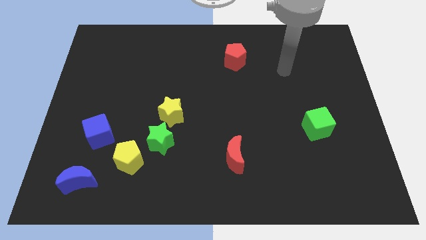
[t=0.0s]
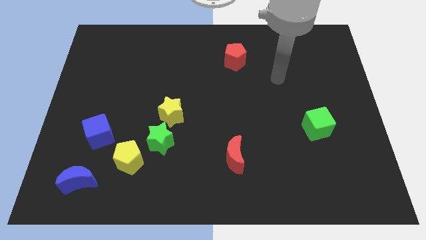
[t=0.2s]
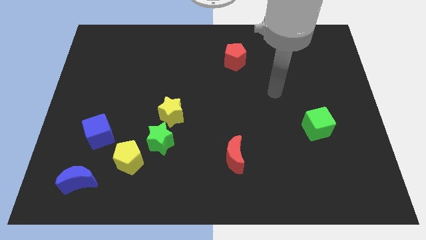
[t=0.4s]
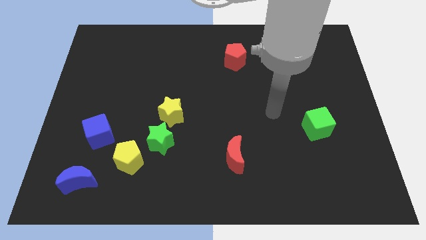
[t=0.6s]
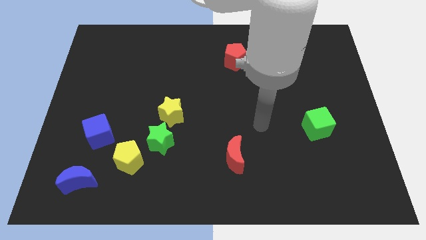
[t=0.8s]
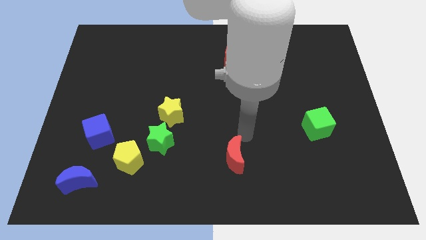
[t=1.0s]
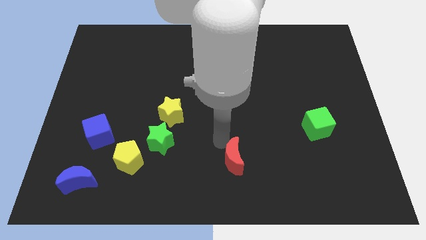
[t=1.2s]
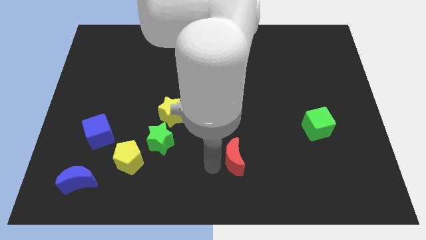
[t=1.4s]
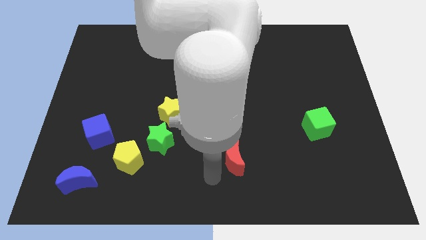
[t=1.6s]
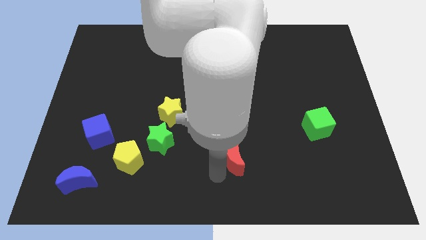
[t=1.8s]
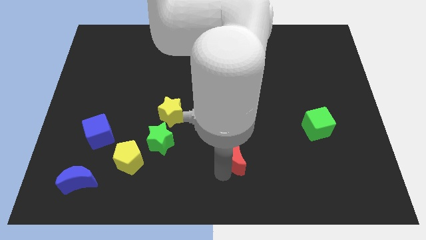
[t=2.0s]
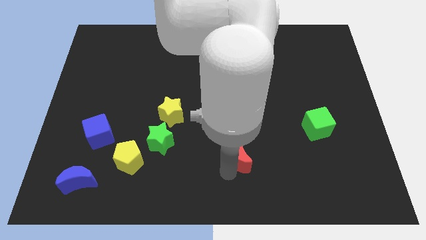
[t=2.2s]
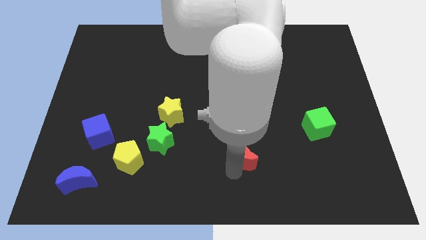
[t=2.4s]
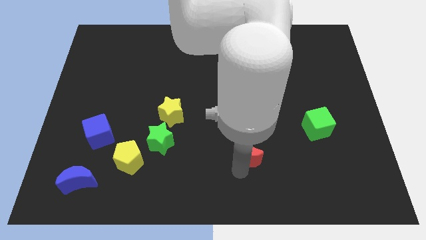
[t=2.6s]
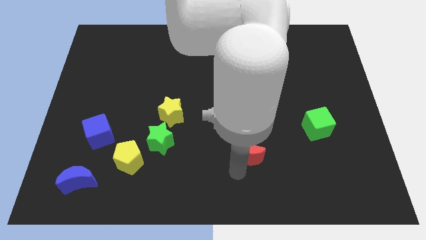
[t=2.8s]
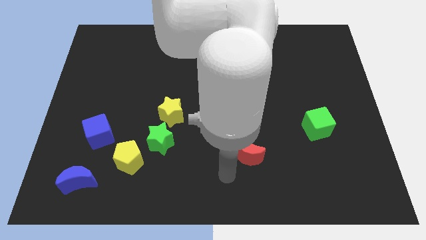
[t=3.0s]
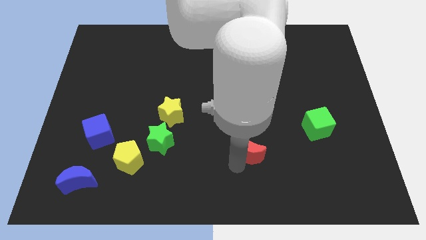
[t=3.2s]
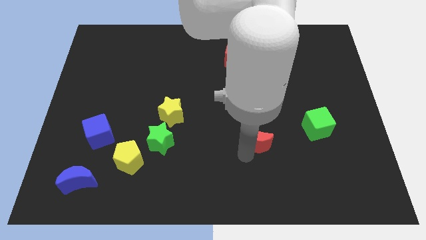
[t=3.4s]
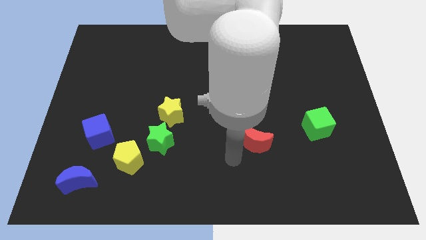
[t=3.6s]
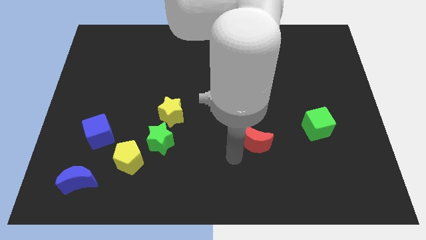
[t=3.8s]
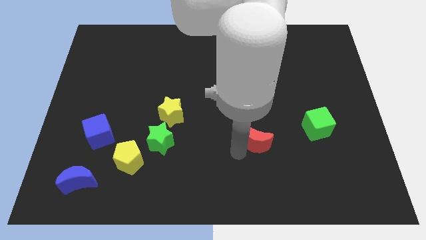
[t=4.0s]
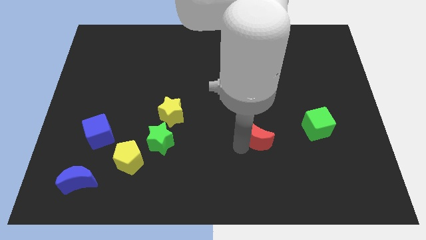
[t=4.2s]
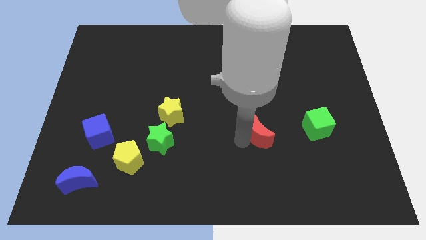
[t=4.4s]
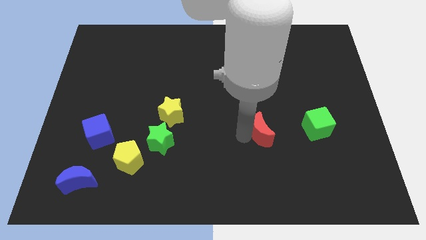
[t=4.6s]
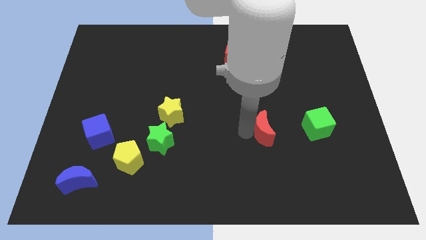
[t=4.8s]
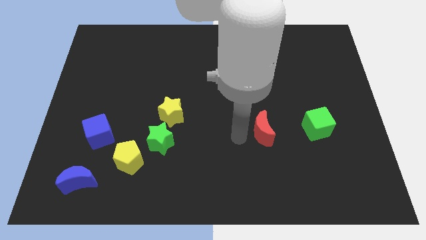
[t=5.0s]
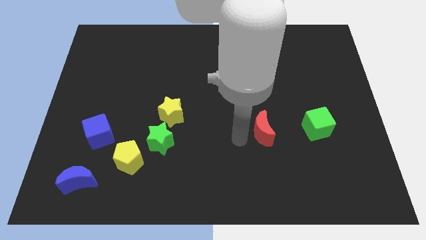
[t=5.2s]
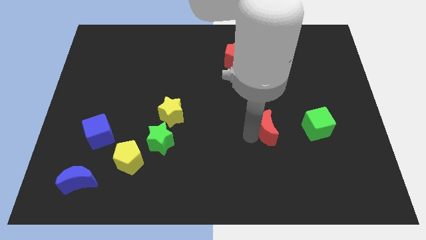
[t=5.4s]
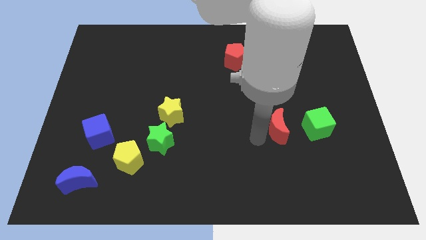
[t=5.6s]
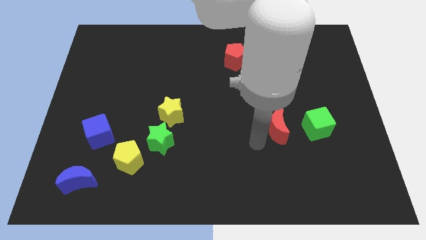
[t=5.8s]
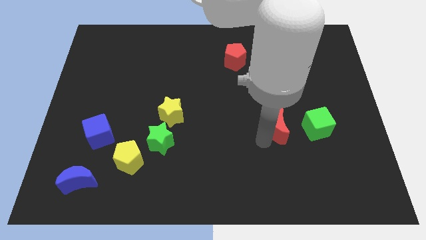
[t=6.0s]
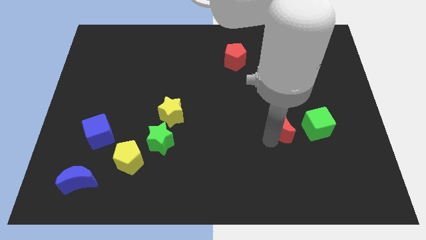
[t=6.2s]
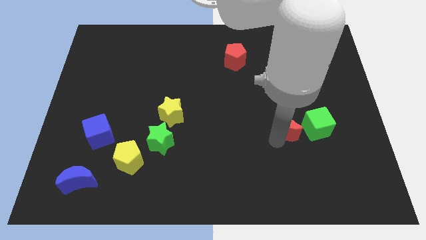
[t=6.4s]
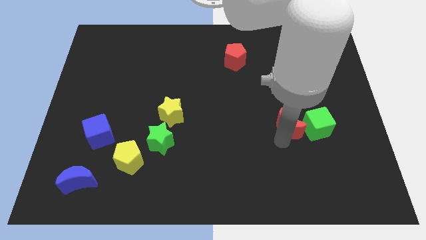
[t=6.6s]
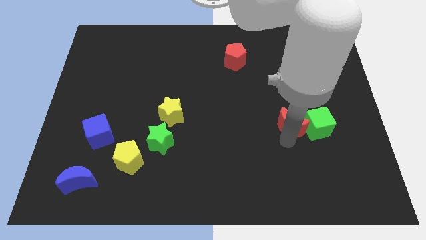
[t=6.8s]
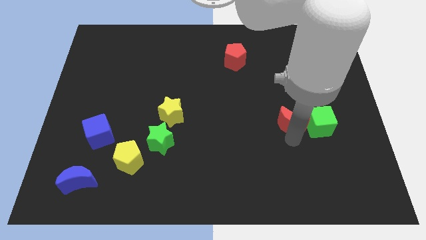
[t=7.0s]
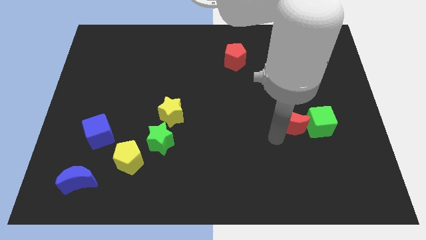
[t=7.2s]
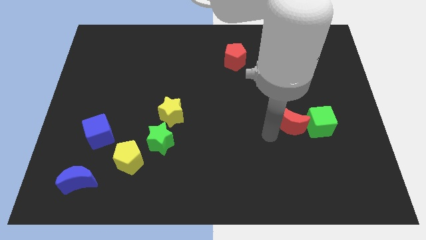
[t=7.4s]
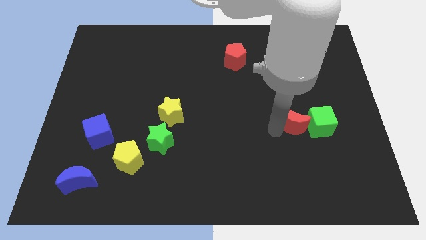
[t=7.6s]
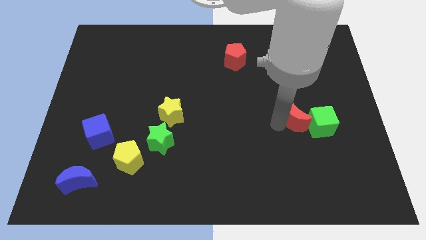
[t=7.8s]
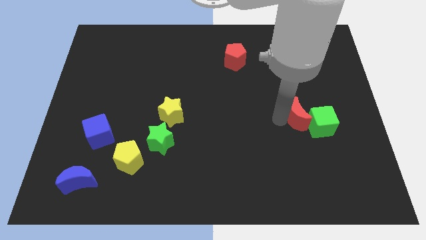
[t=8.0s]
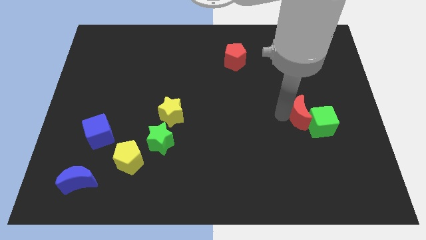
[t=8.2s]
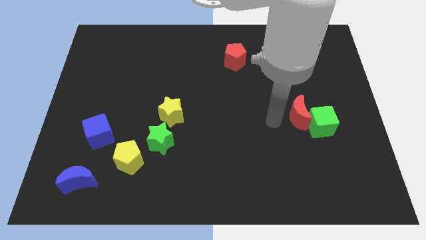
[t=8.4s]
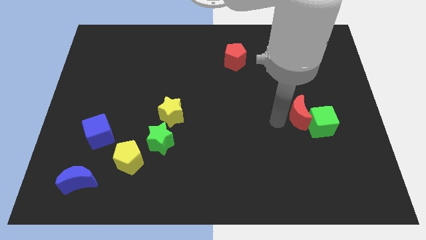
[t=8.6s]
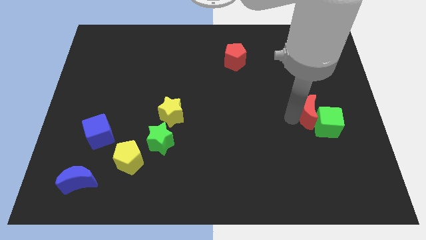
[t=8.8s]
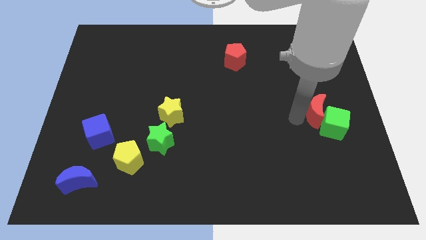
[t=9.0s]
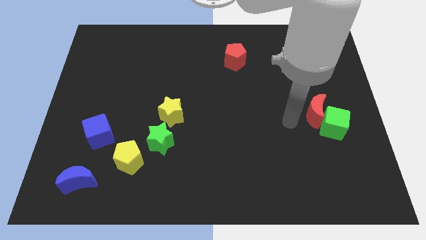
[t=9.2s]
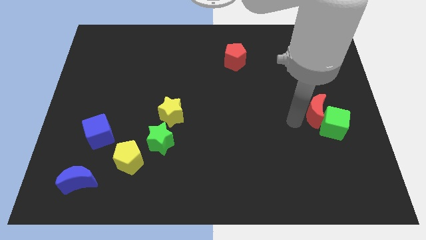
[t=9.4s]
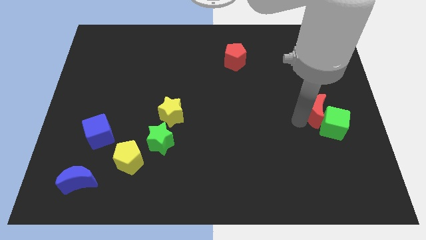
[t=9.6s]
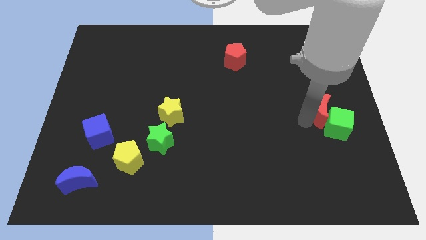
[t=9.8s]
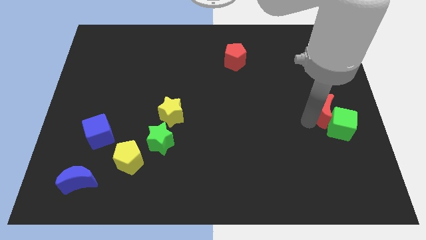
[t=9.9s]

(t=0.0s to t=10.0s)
slide the red moon to the center right
